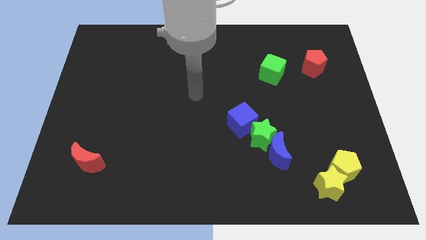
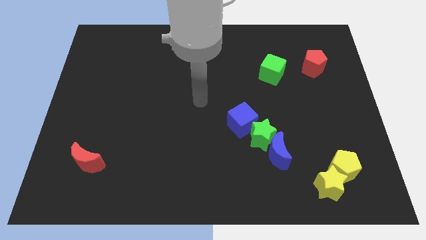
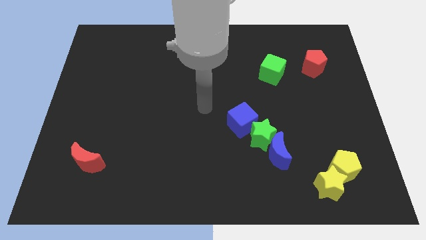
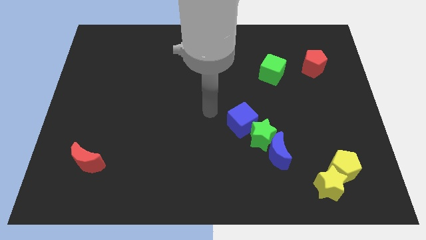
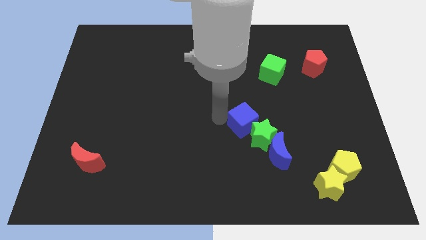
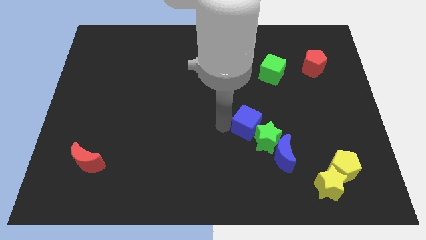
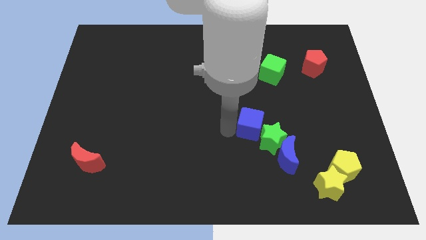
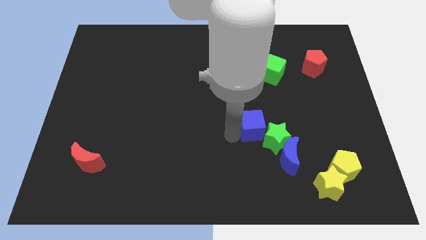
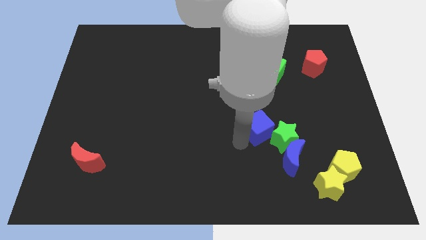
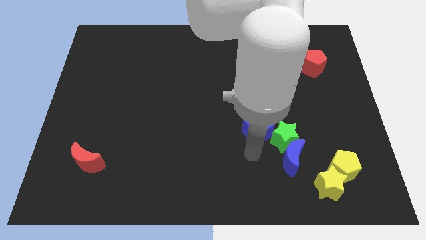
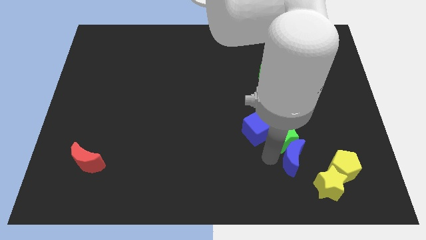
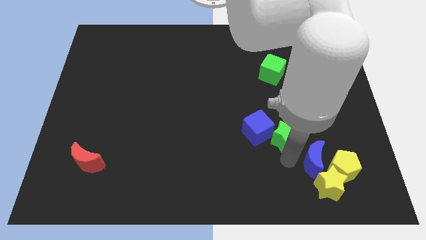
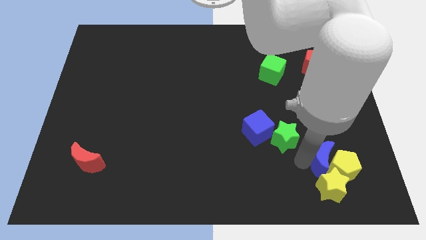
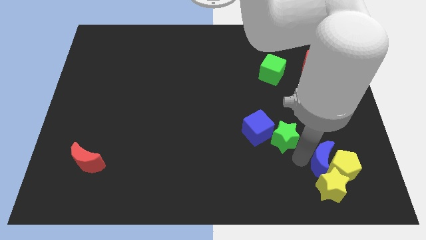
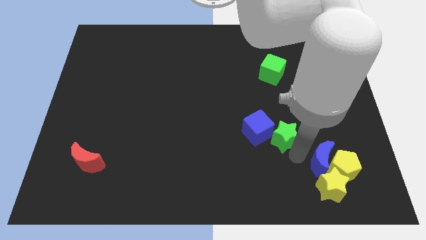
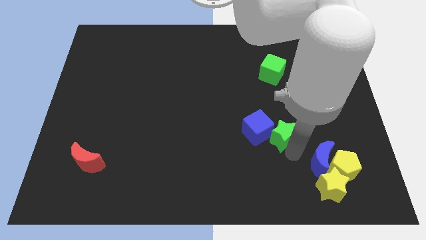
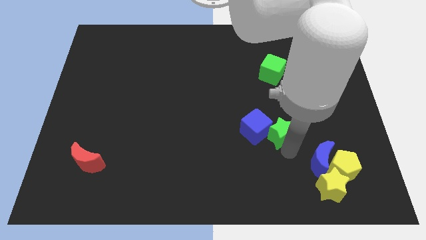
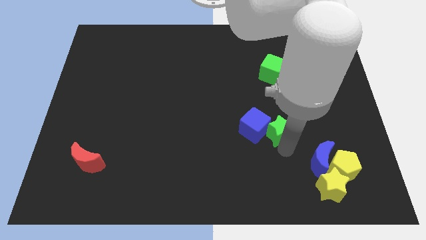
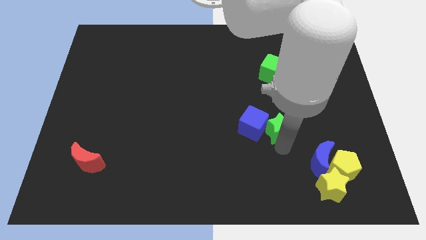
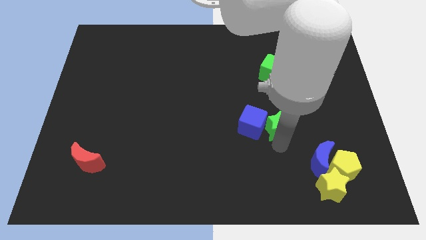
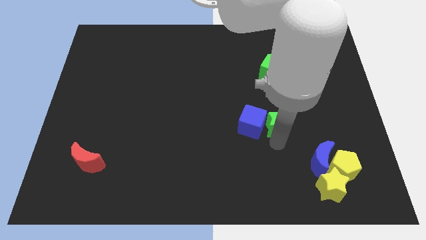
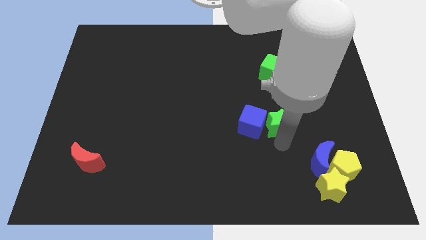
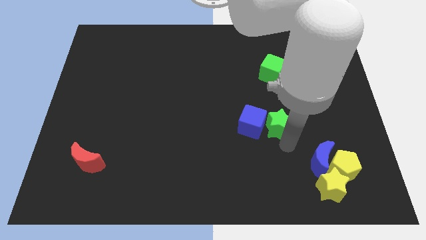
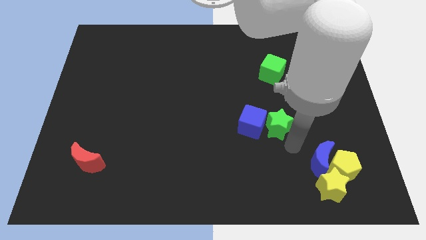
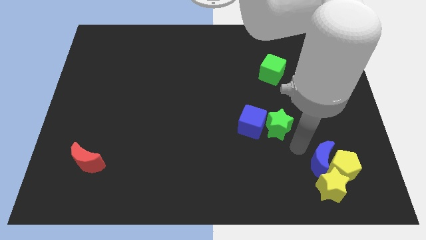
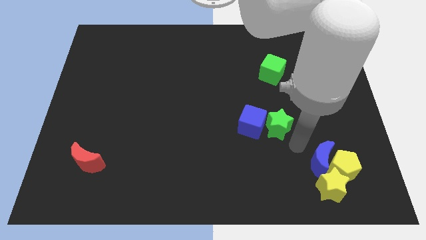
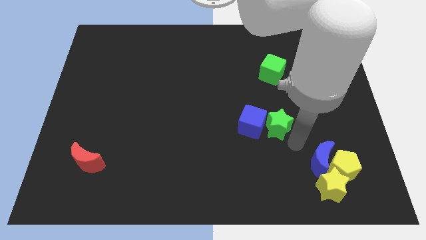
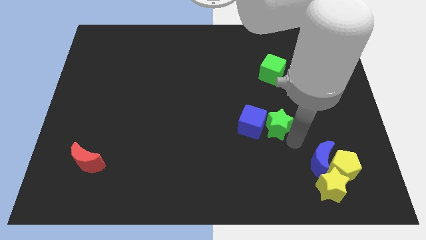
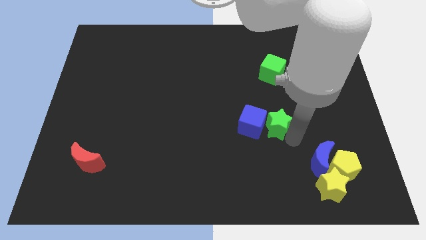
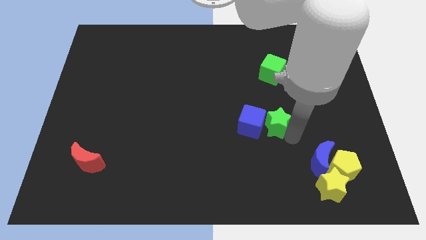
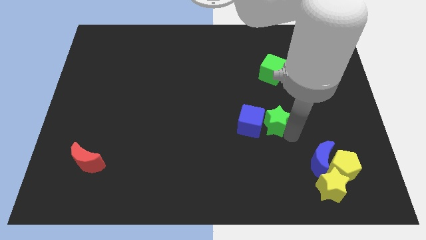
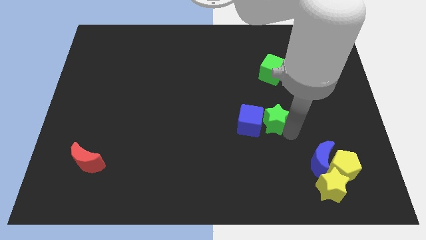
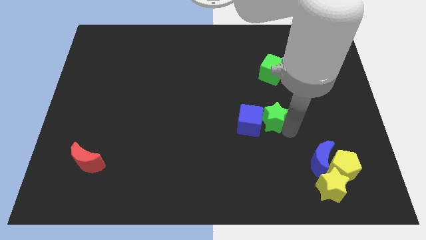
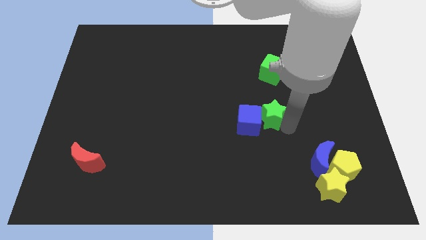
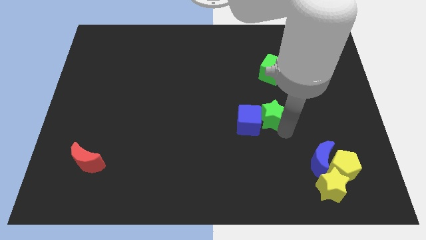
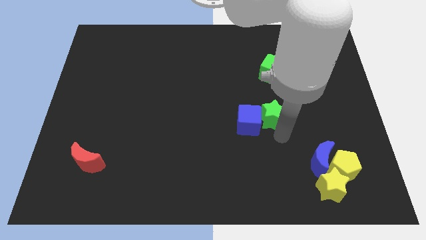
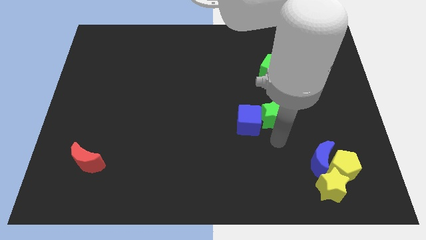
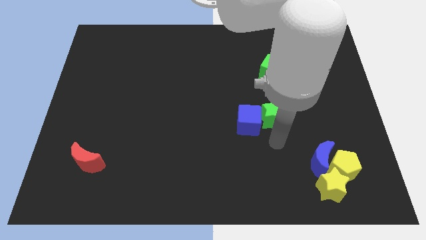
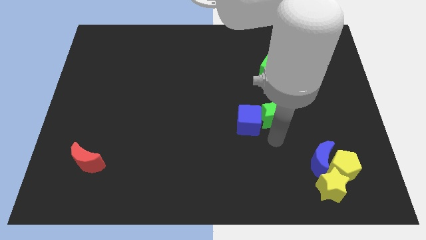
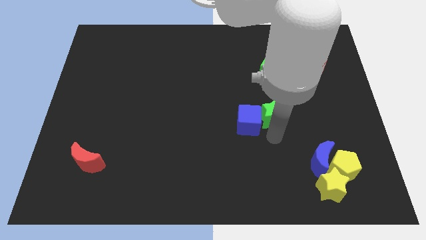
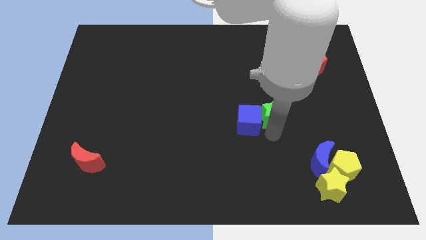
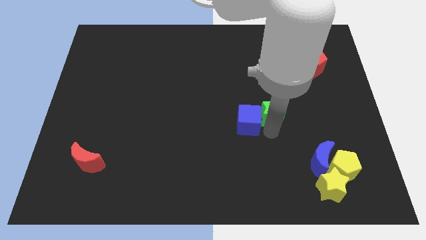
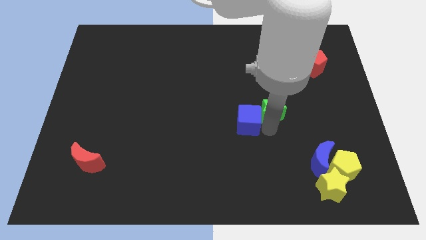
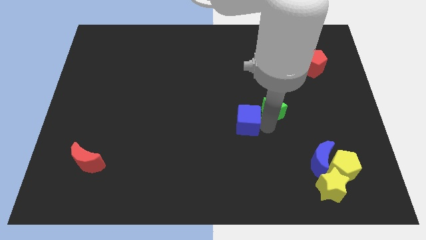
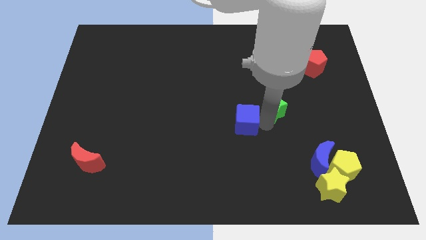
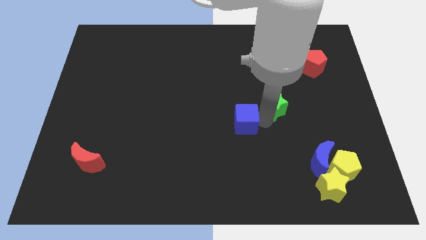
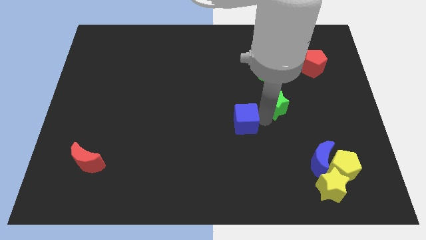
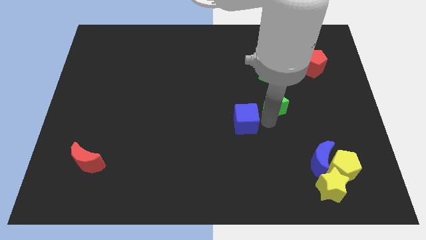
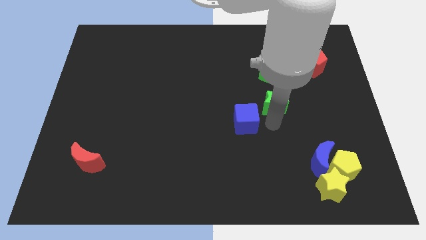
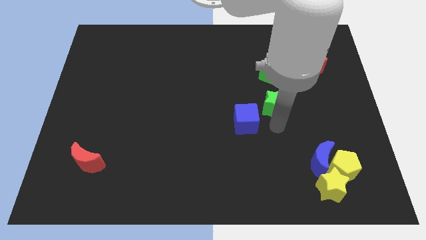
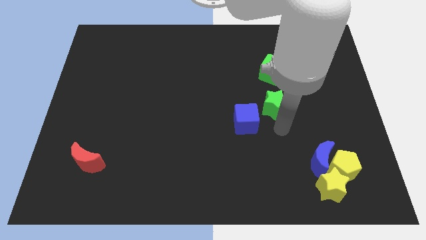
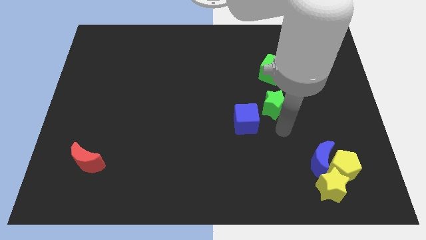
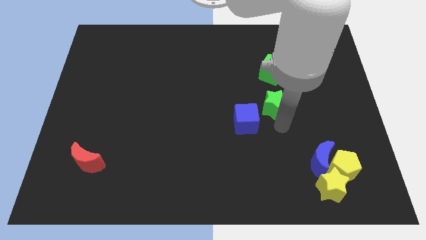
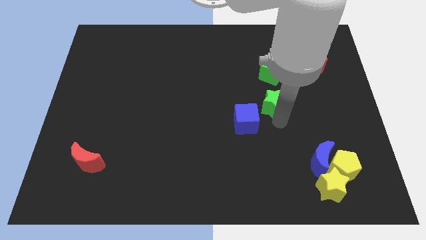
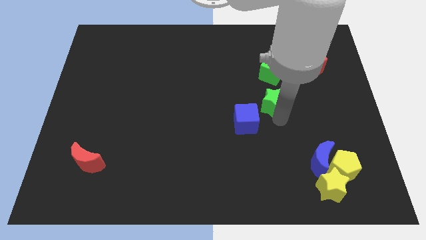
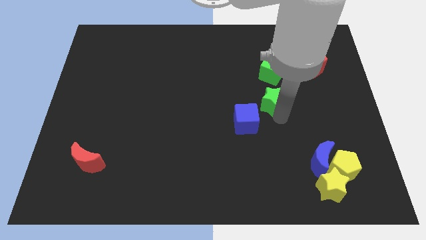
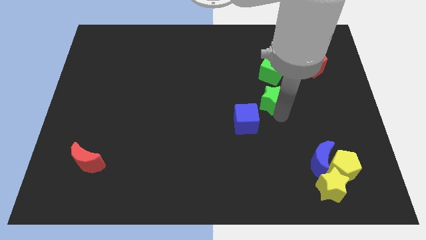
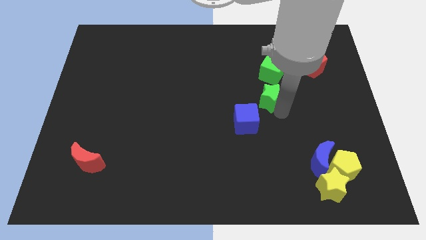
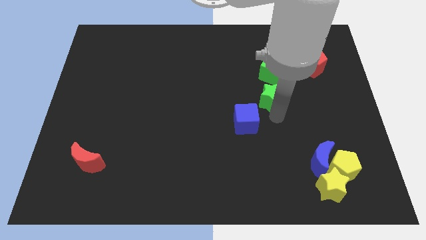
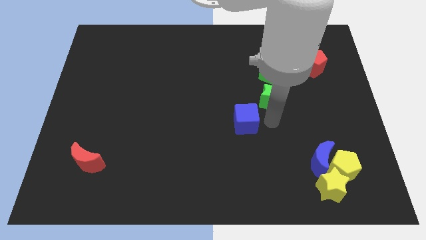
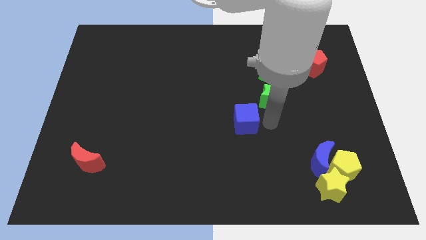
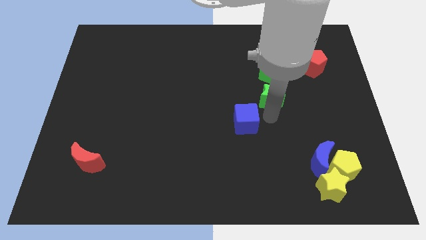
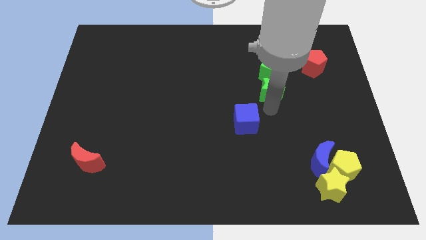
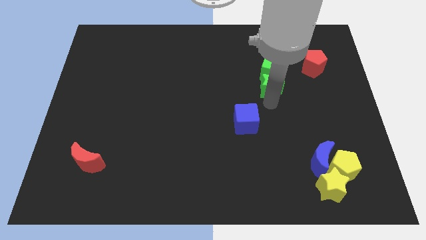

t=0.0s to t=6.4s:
slide the green star towards the green cube

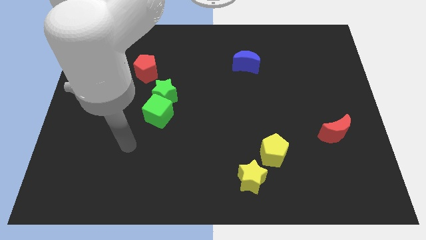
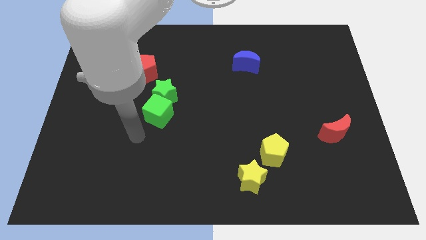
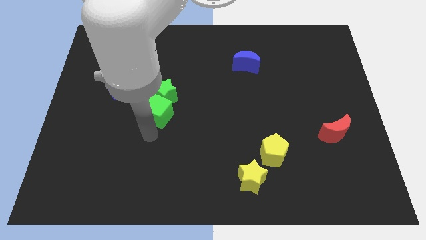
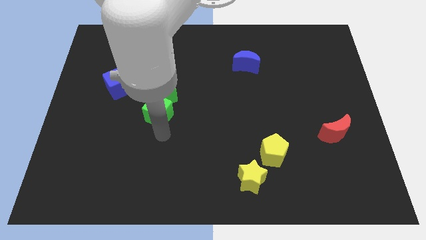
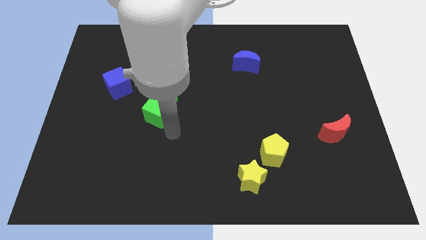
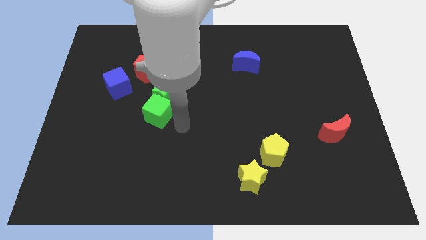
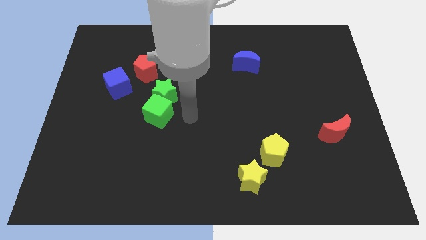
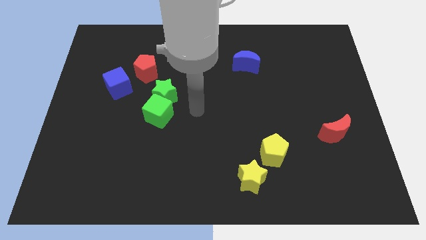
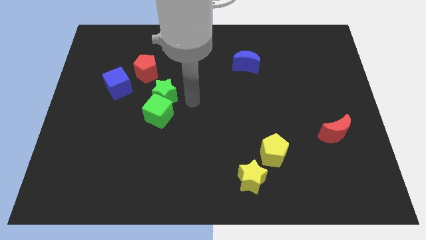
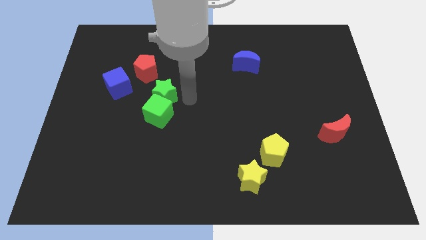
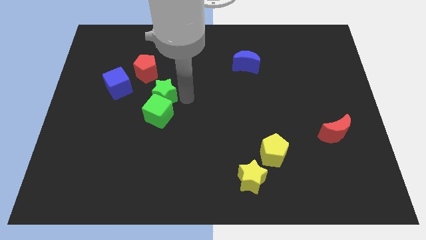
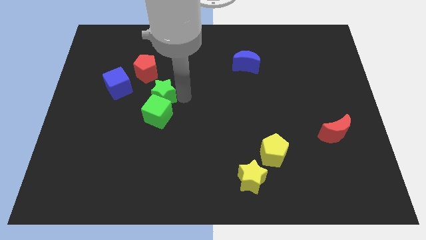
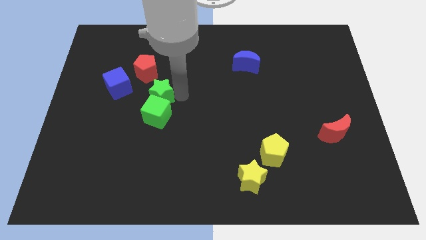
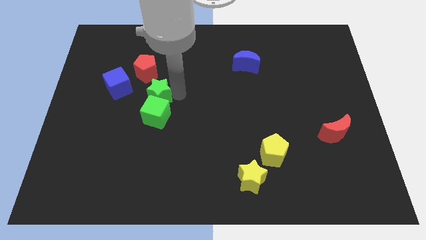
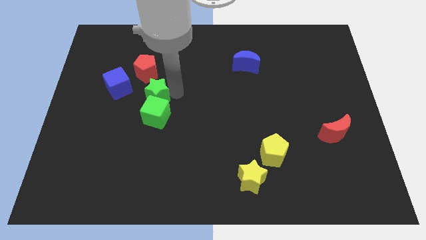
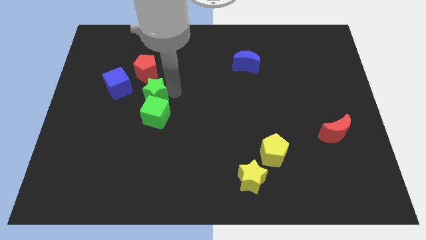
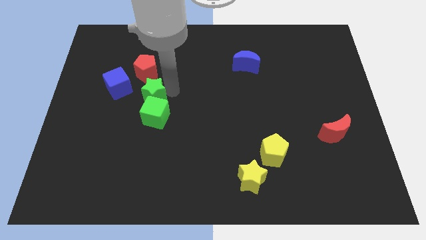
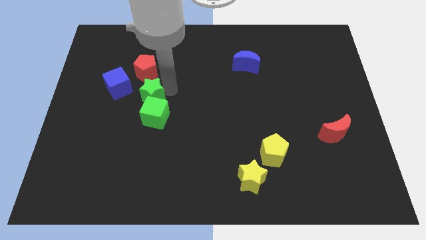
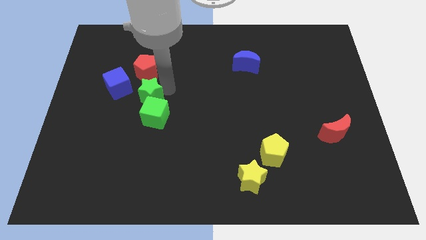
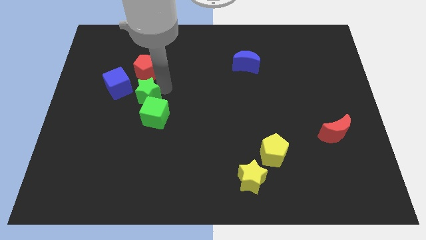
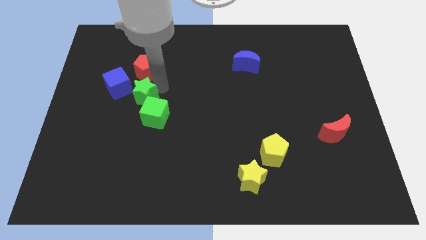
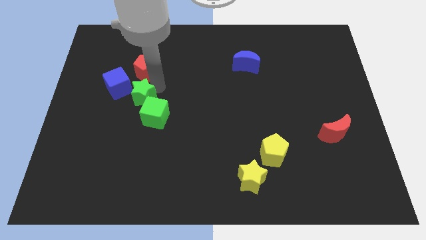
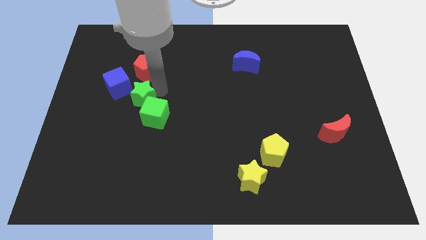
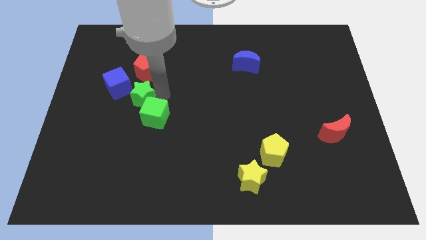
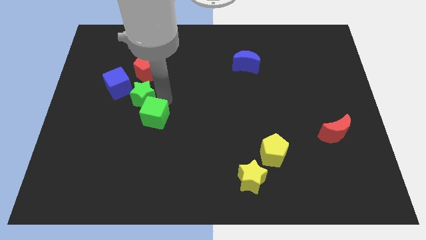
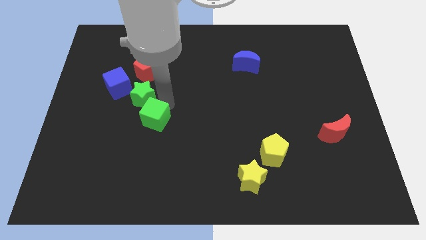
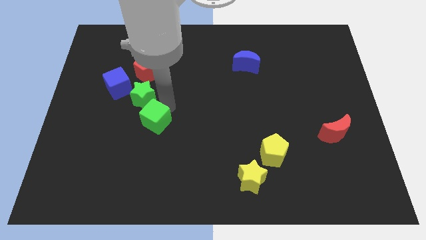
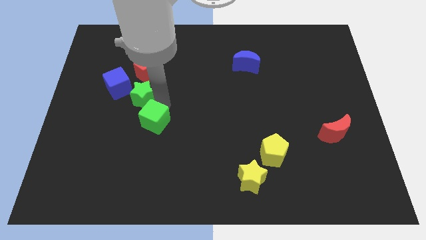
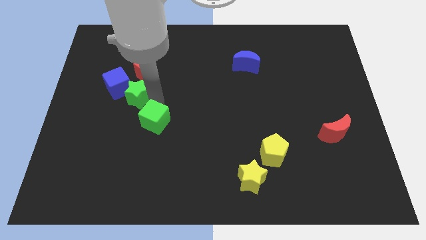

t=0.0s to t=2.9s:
move the green star towards the blue cube
